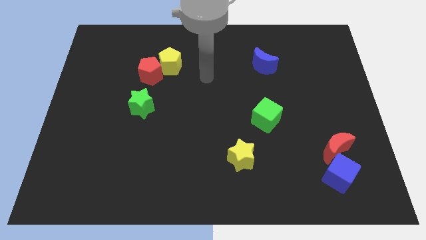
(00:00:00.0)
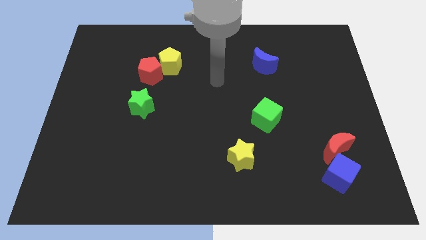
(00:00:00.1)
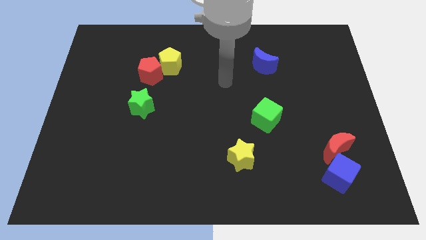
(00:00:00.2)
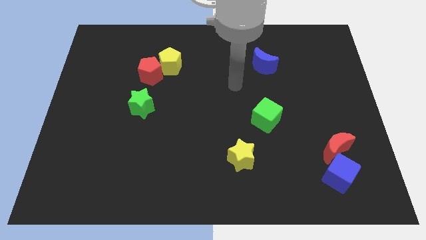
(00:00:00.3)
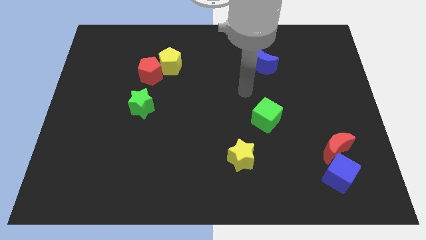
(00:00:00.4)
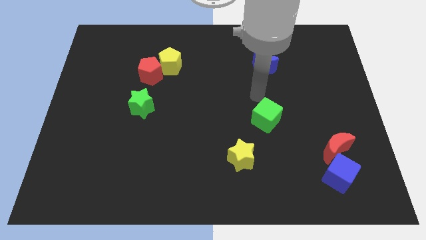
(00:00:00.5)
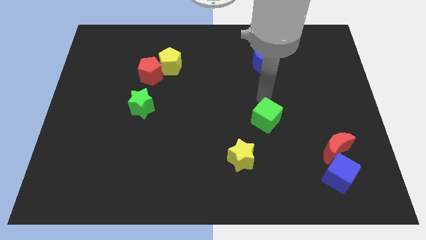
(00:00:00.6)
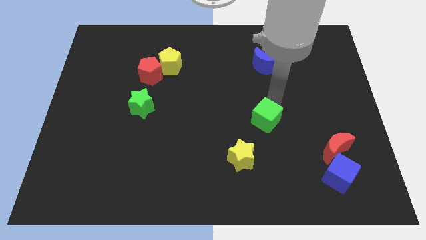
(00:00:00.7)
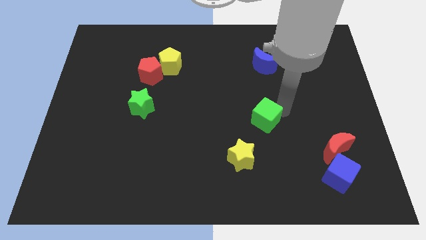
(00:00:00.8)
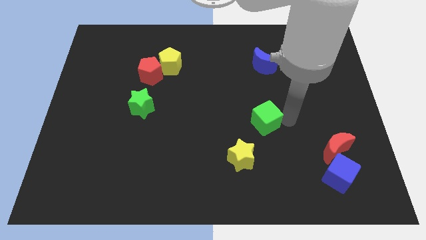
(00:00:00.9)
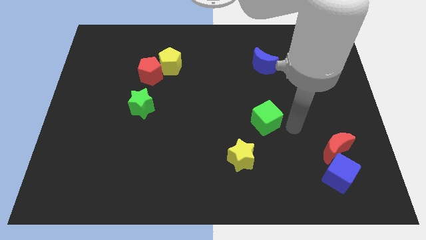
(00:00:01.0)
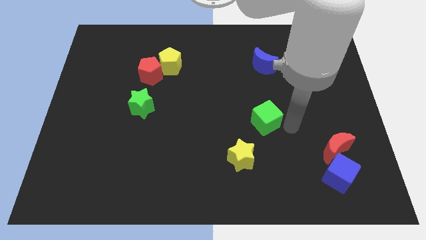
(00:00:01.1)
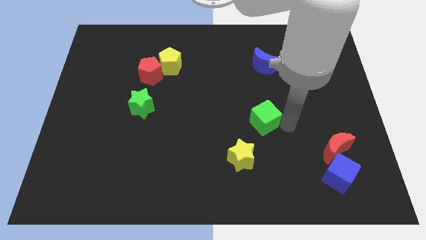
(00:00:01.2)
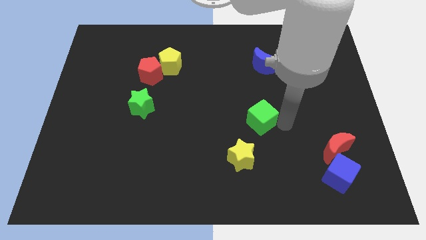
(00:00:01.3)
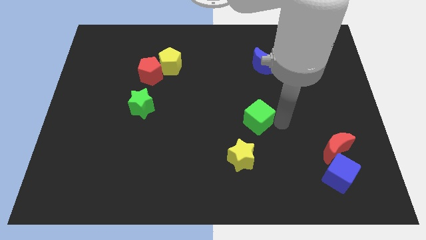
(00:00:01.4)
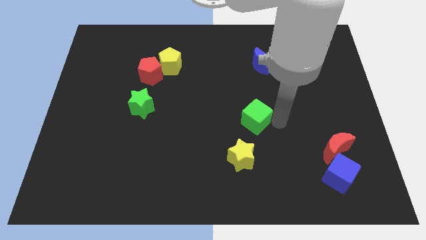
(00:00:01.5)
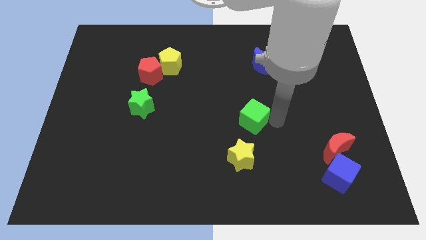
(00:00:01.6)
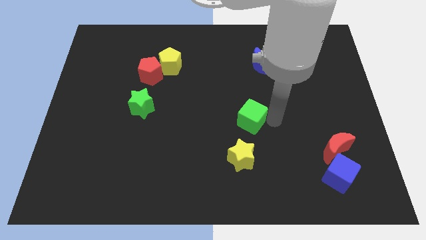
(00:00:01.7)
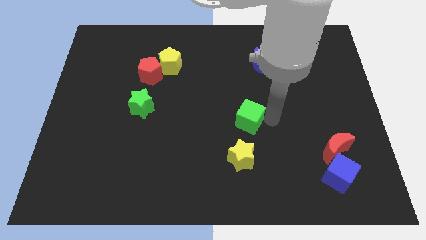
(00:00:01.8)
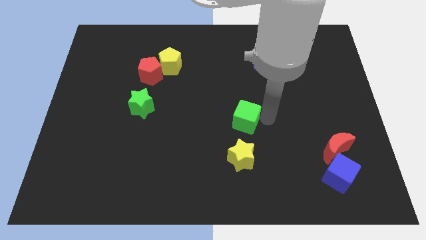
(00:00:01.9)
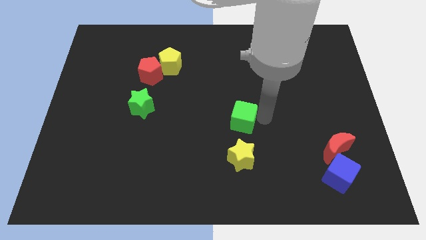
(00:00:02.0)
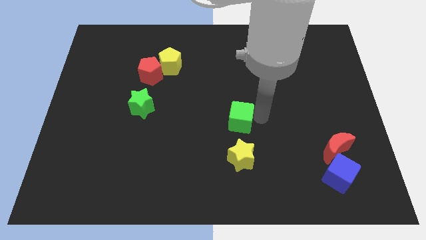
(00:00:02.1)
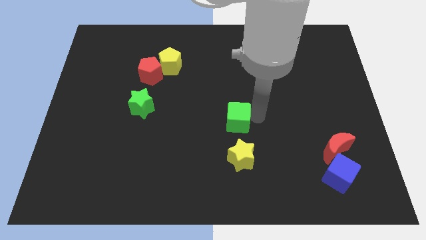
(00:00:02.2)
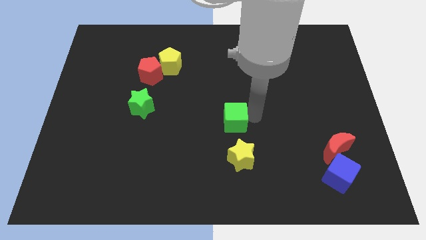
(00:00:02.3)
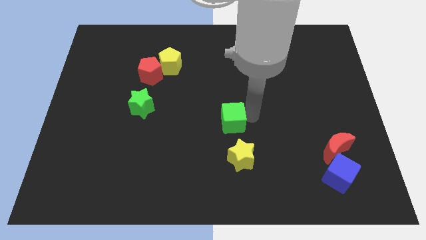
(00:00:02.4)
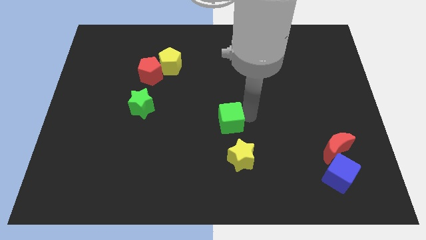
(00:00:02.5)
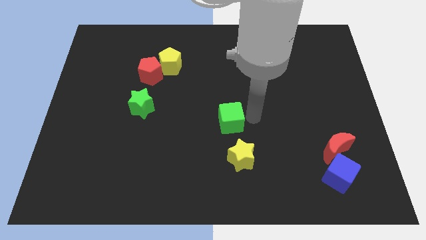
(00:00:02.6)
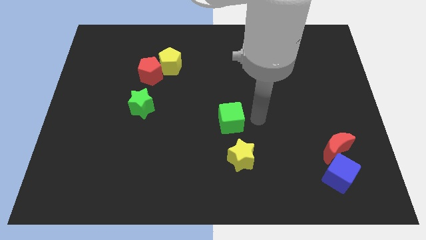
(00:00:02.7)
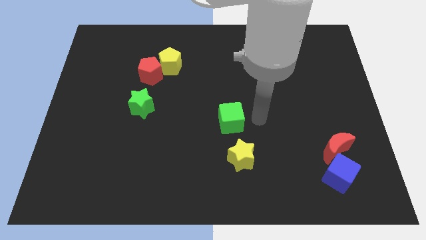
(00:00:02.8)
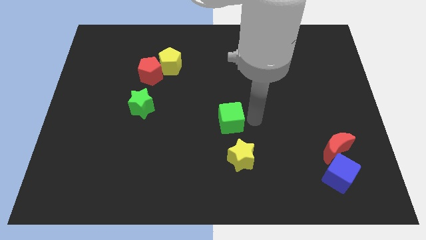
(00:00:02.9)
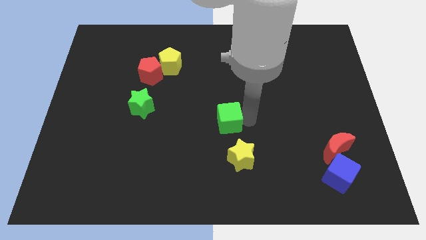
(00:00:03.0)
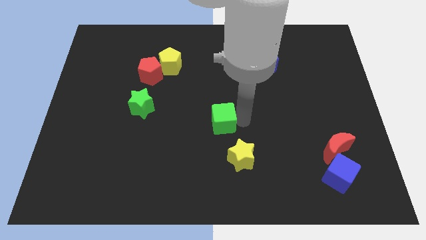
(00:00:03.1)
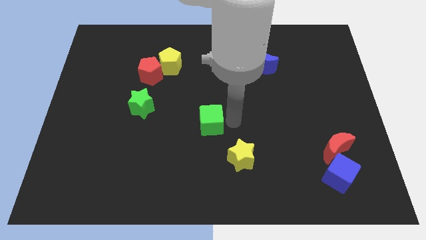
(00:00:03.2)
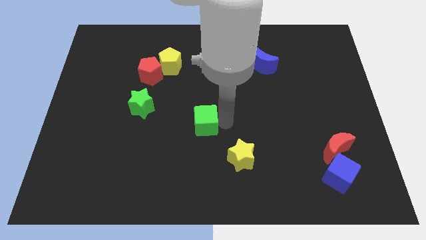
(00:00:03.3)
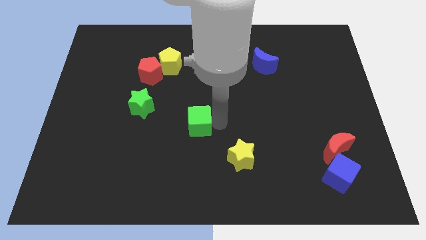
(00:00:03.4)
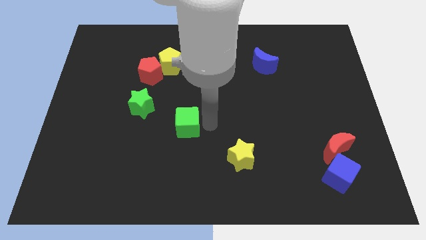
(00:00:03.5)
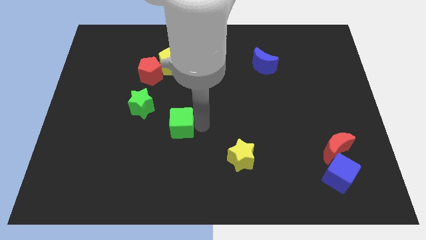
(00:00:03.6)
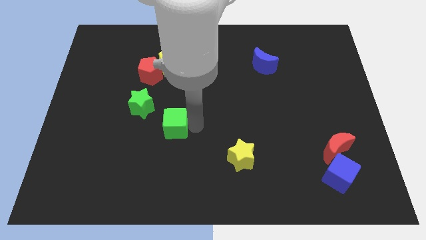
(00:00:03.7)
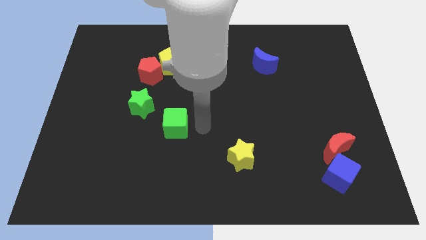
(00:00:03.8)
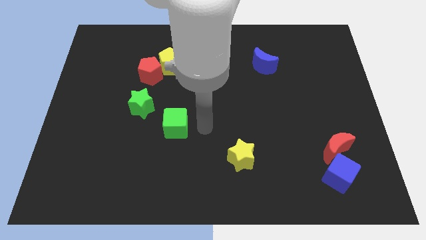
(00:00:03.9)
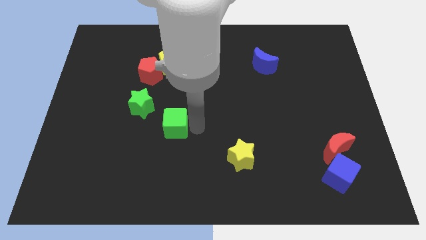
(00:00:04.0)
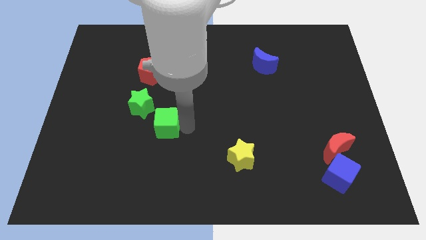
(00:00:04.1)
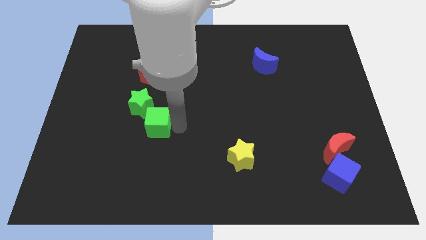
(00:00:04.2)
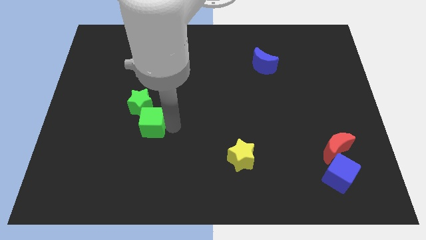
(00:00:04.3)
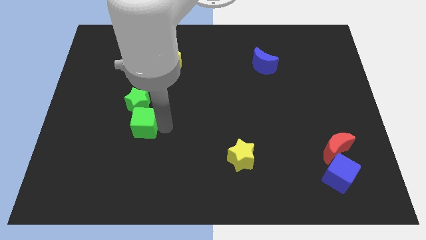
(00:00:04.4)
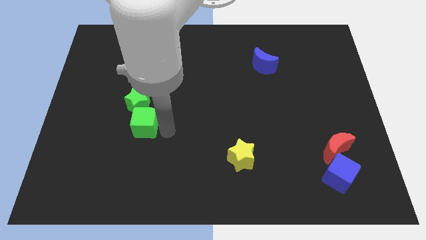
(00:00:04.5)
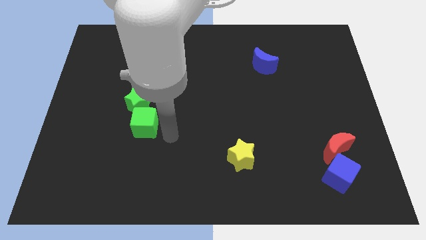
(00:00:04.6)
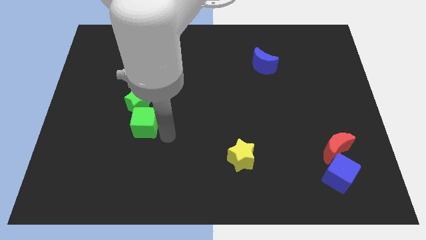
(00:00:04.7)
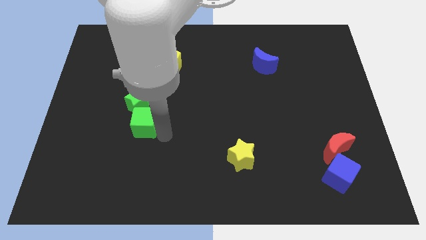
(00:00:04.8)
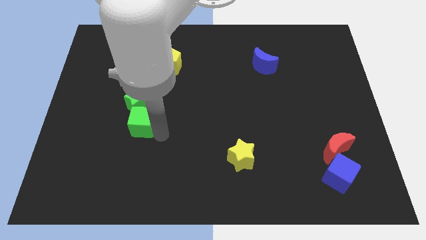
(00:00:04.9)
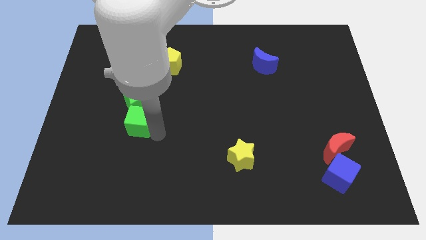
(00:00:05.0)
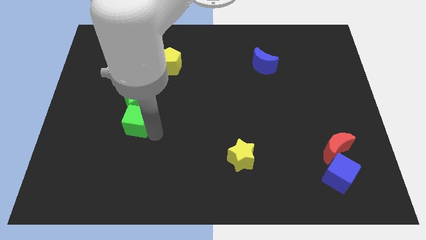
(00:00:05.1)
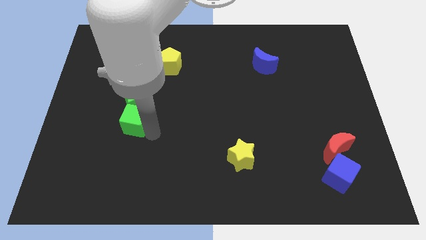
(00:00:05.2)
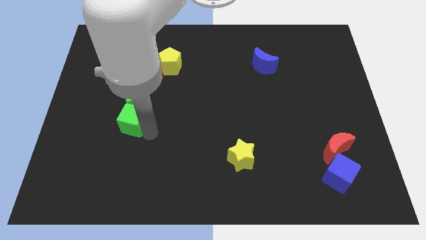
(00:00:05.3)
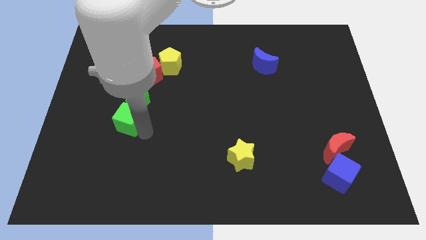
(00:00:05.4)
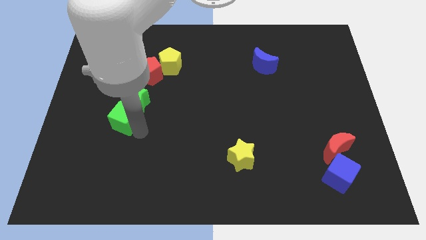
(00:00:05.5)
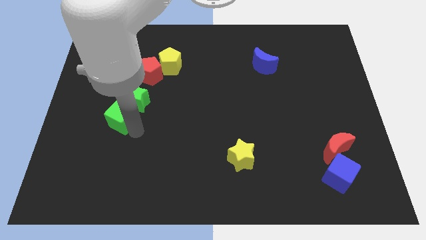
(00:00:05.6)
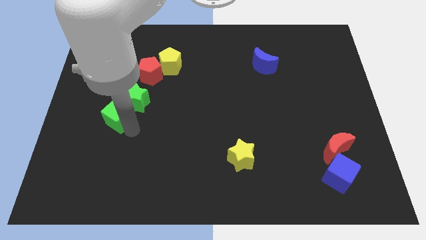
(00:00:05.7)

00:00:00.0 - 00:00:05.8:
move the green cube to the left side of the green star

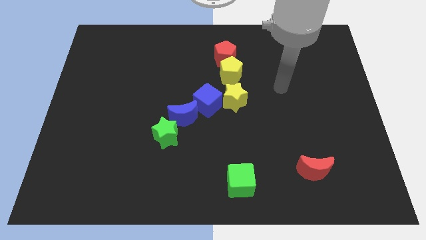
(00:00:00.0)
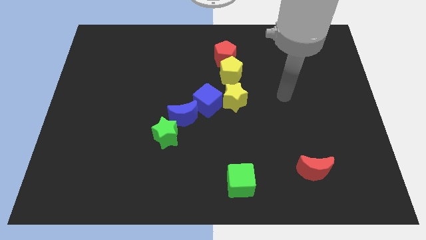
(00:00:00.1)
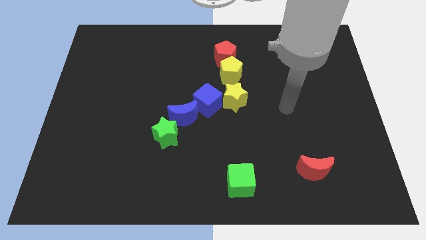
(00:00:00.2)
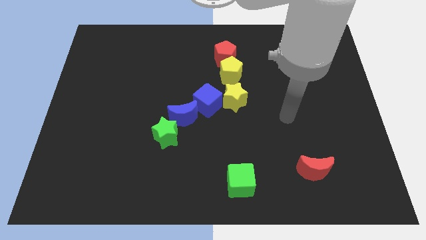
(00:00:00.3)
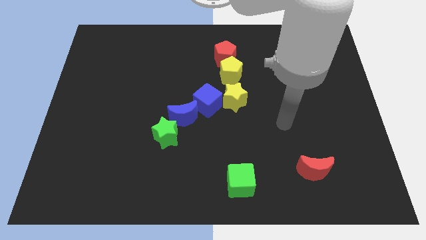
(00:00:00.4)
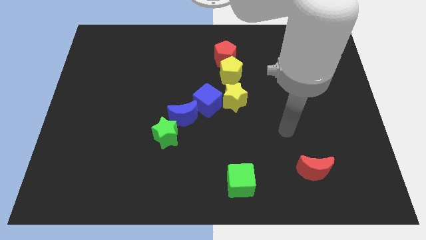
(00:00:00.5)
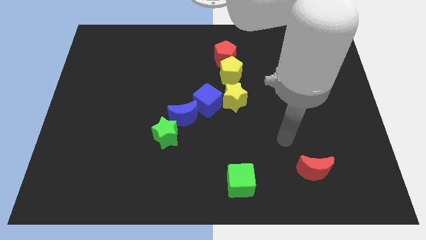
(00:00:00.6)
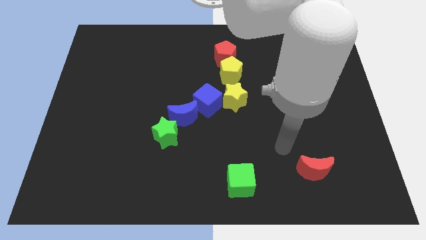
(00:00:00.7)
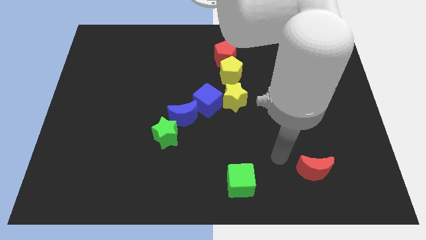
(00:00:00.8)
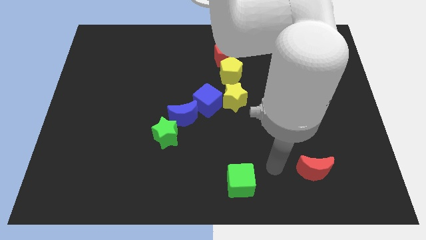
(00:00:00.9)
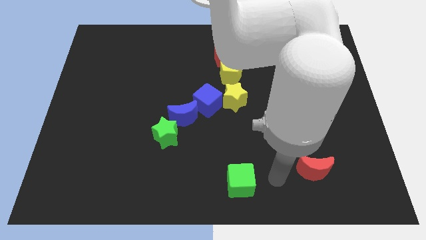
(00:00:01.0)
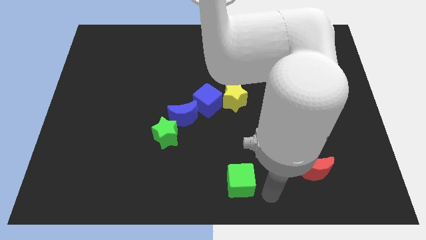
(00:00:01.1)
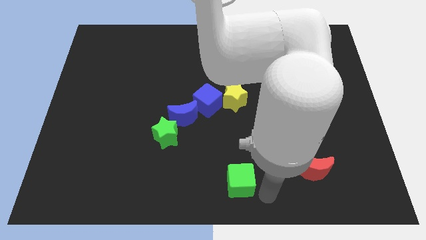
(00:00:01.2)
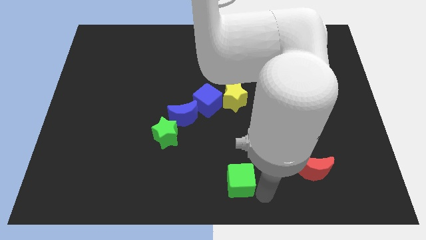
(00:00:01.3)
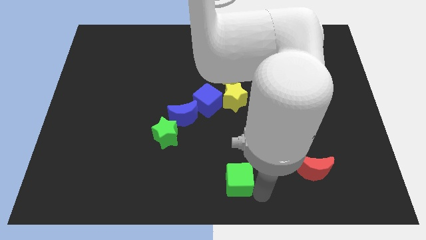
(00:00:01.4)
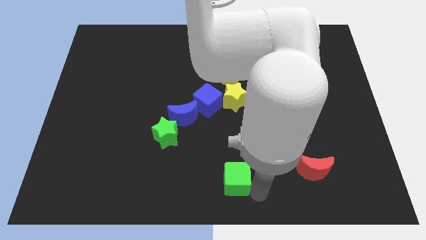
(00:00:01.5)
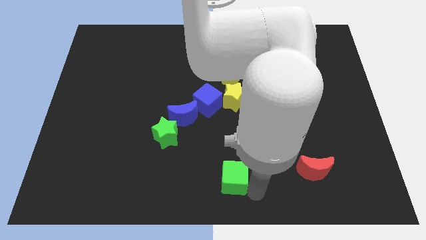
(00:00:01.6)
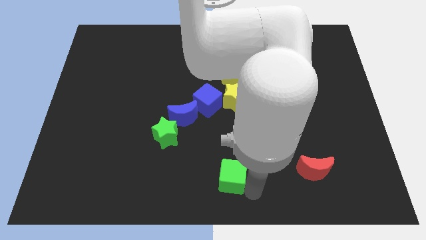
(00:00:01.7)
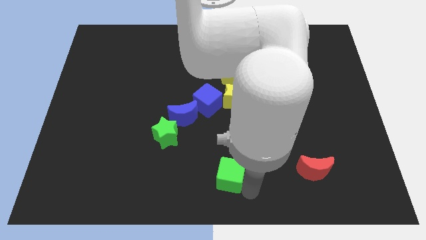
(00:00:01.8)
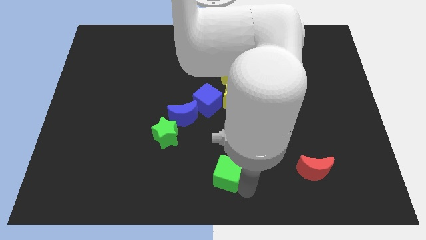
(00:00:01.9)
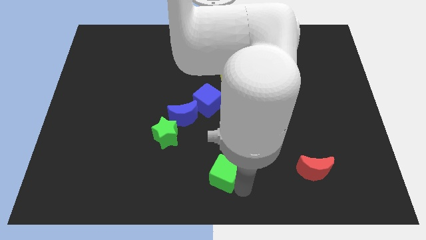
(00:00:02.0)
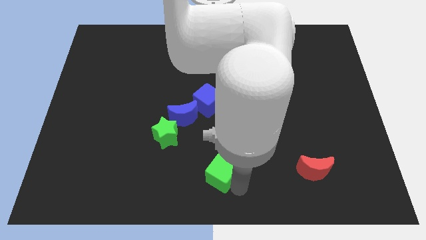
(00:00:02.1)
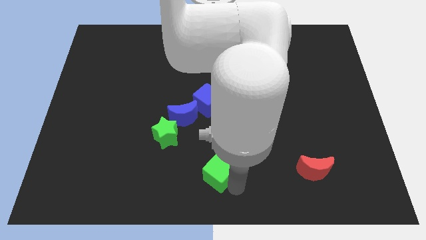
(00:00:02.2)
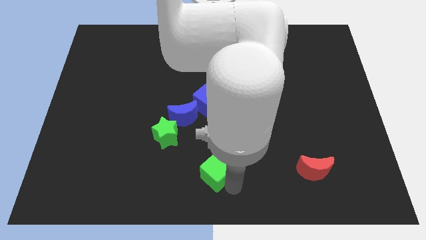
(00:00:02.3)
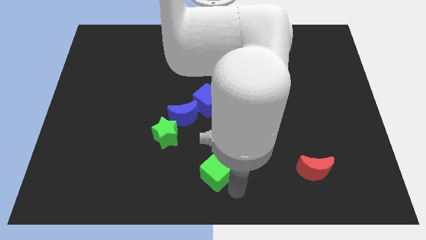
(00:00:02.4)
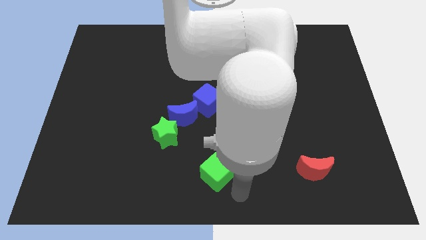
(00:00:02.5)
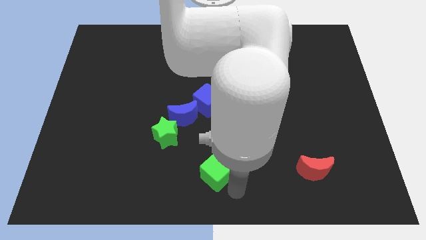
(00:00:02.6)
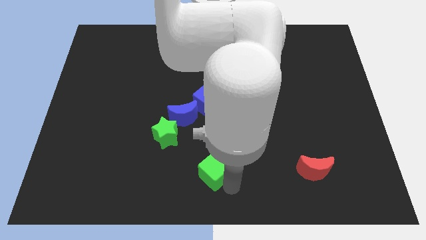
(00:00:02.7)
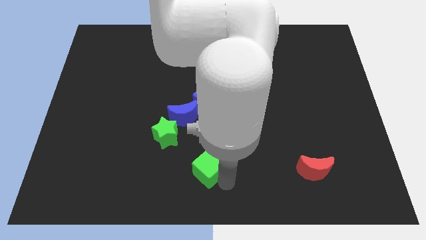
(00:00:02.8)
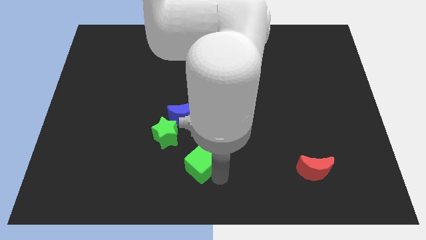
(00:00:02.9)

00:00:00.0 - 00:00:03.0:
push the green cube to the bottom of the blue moon
